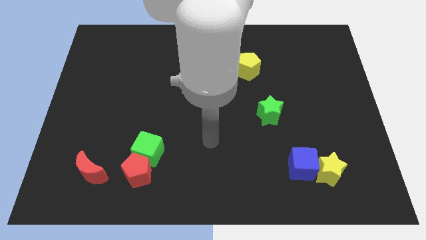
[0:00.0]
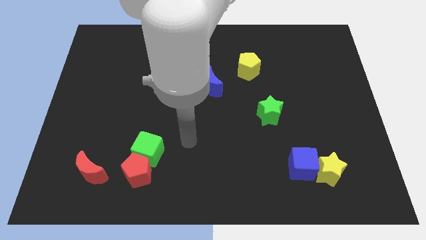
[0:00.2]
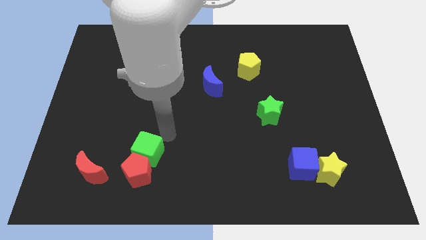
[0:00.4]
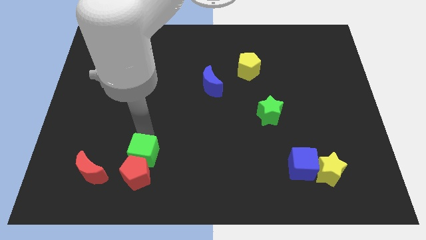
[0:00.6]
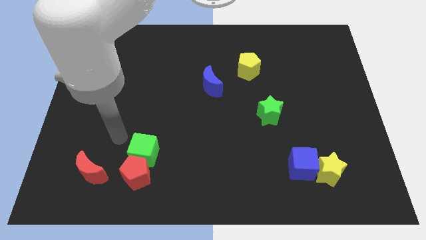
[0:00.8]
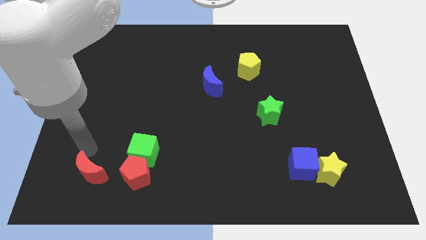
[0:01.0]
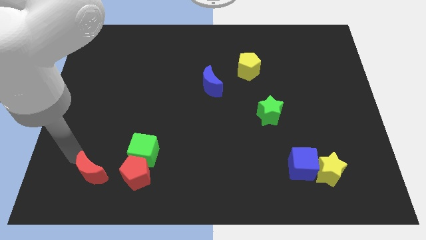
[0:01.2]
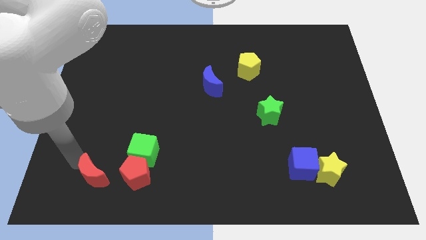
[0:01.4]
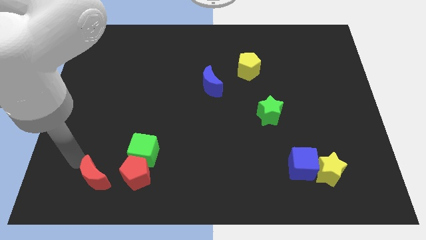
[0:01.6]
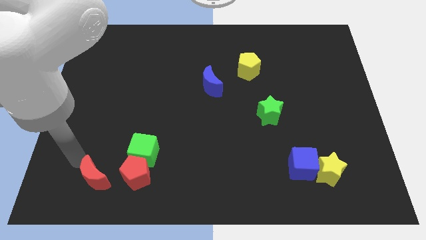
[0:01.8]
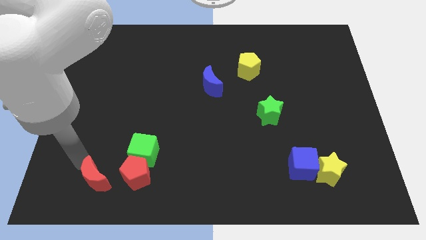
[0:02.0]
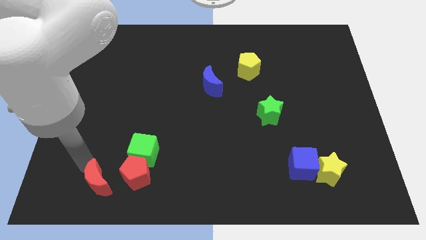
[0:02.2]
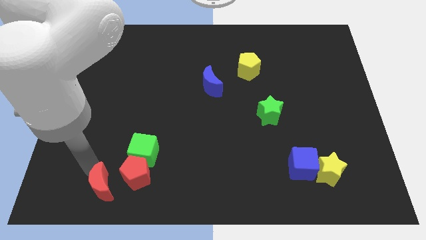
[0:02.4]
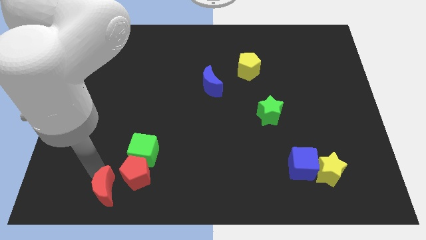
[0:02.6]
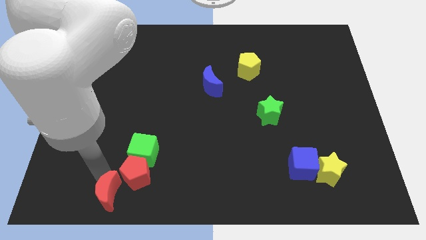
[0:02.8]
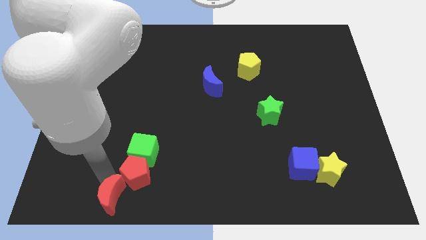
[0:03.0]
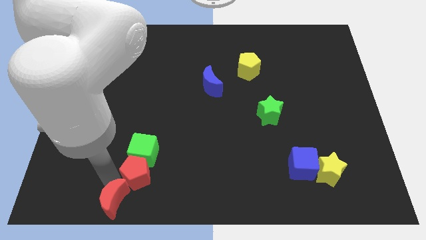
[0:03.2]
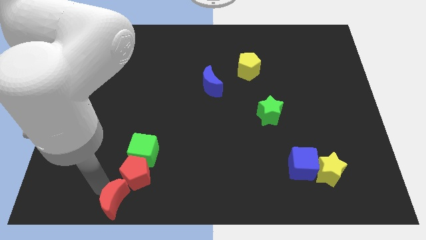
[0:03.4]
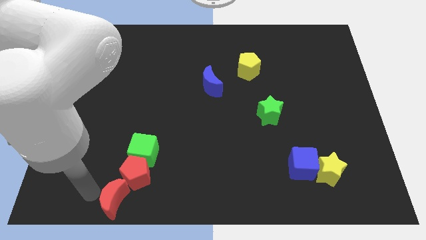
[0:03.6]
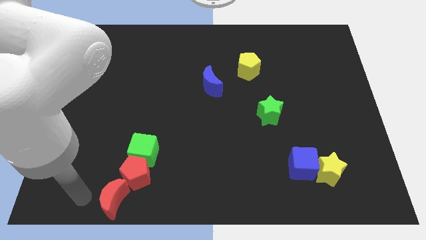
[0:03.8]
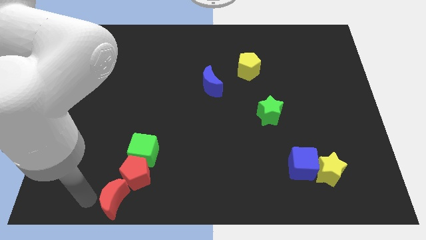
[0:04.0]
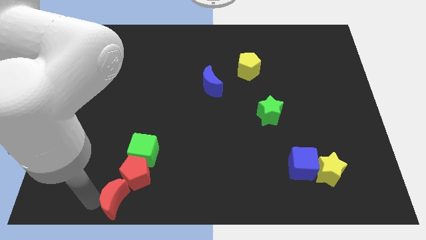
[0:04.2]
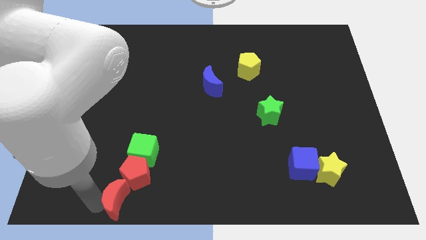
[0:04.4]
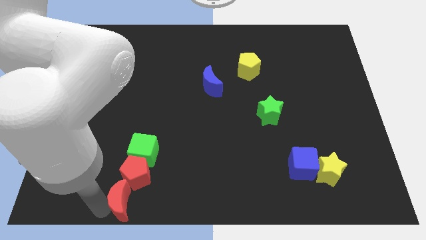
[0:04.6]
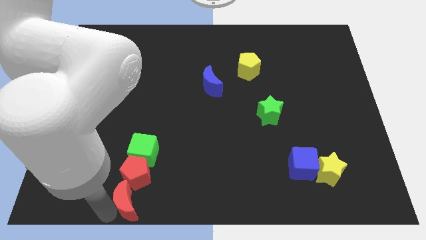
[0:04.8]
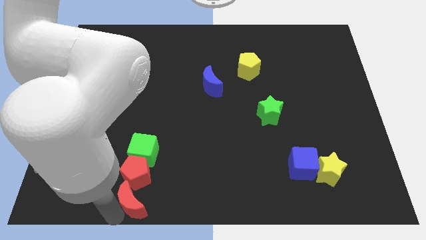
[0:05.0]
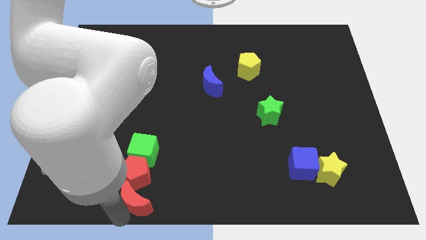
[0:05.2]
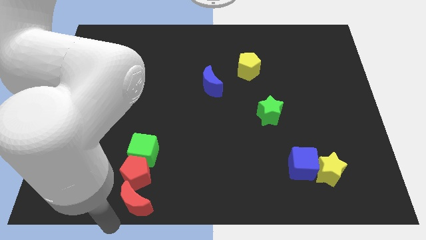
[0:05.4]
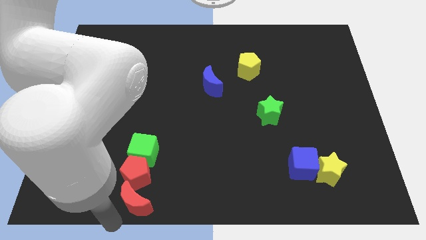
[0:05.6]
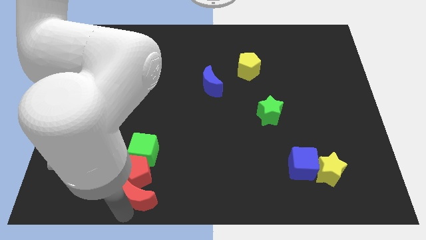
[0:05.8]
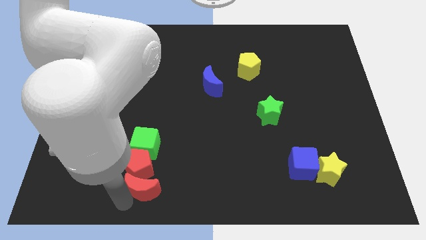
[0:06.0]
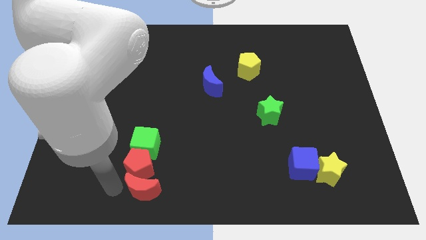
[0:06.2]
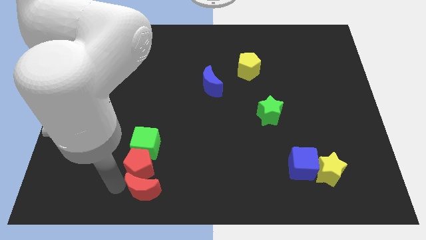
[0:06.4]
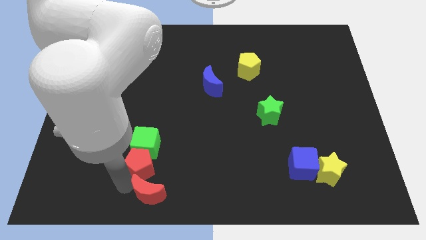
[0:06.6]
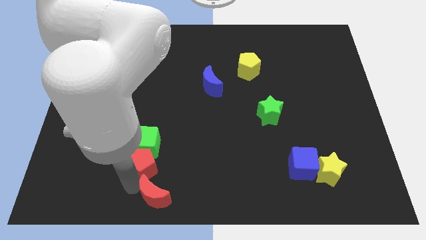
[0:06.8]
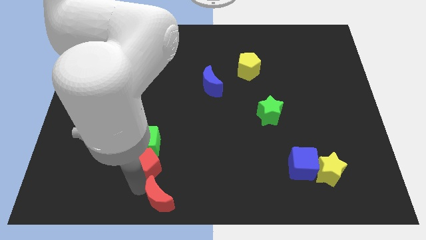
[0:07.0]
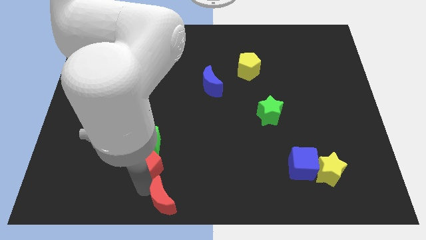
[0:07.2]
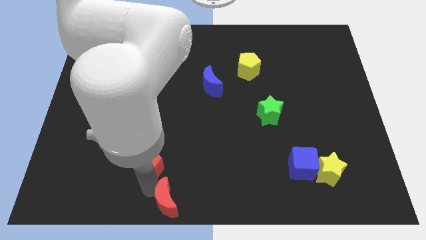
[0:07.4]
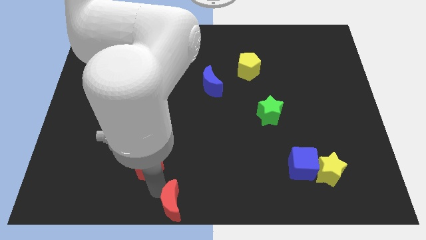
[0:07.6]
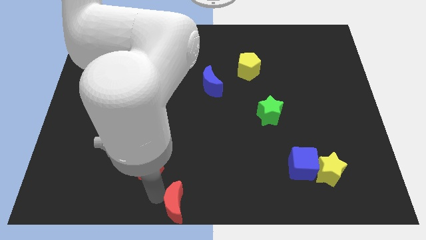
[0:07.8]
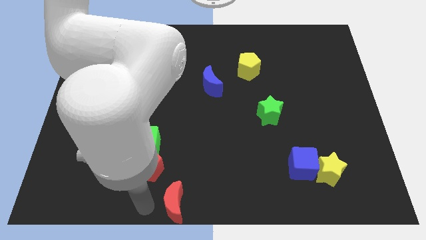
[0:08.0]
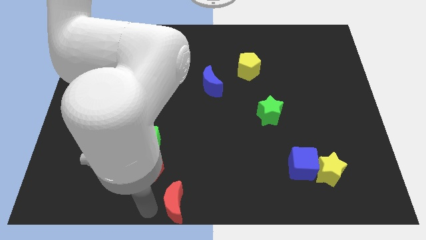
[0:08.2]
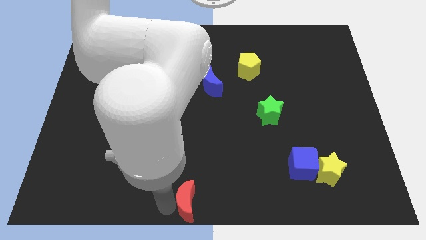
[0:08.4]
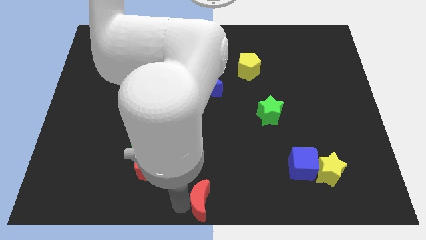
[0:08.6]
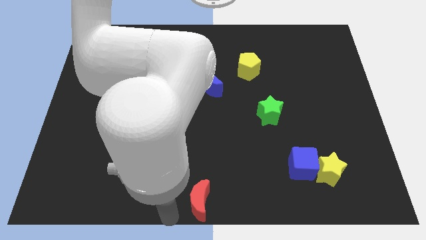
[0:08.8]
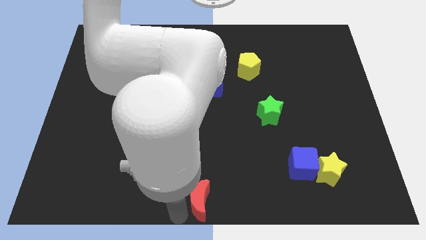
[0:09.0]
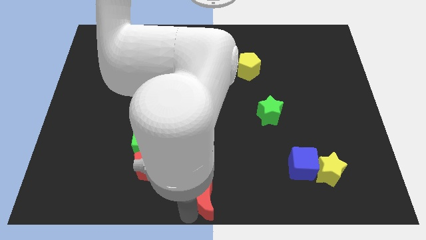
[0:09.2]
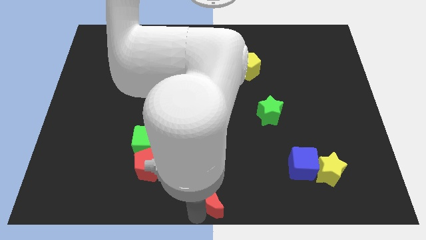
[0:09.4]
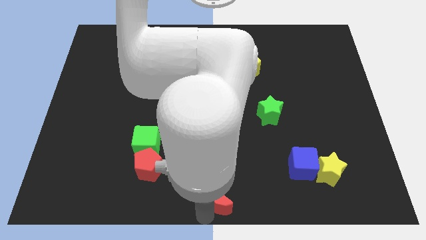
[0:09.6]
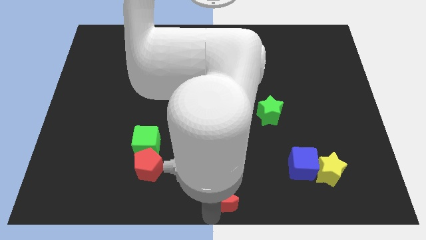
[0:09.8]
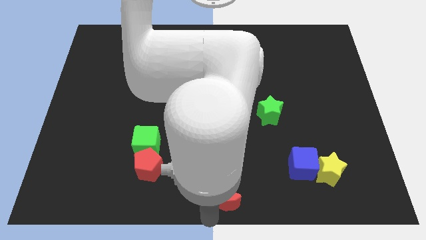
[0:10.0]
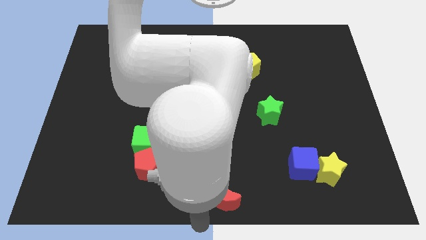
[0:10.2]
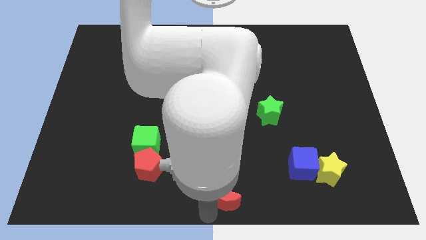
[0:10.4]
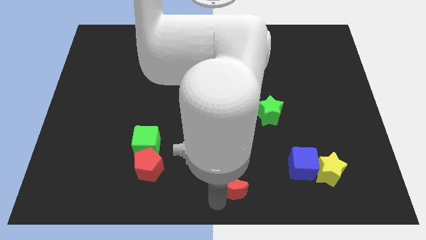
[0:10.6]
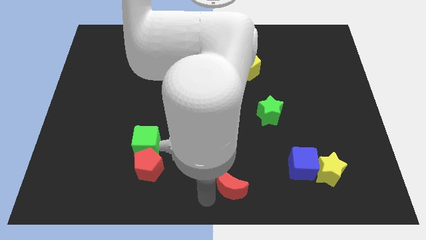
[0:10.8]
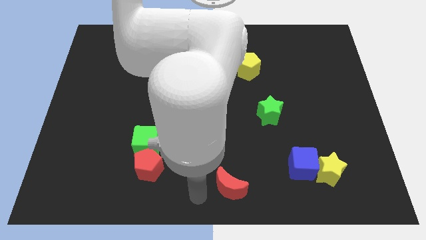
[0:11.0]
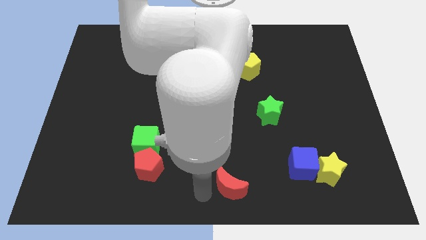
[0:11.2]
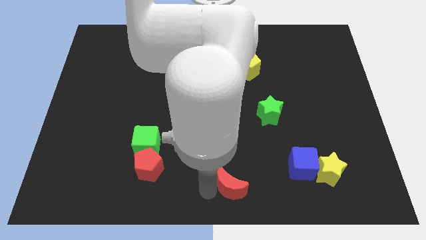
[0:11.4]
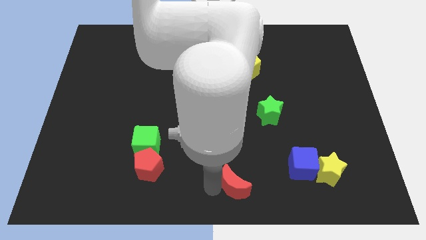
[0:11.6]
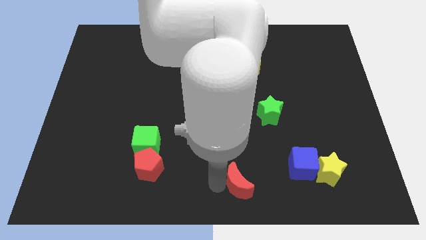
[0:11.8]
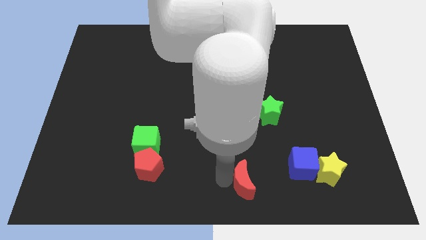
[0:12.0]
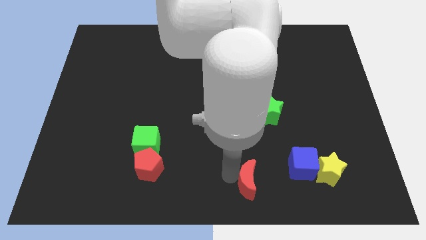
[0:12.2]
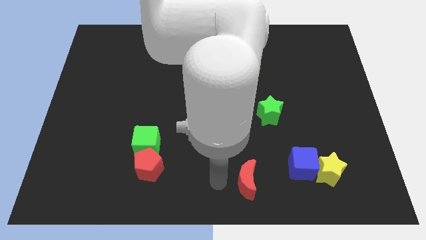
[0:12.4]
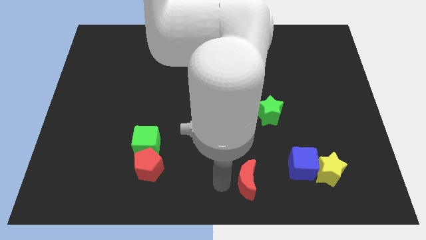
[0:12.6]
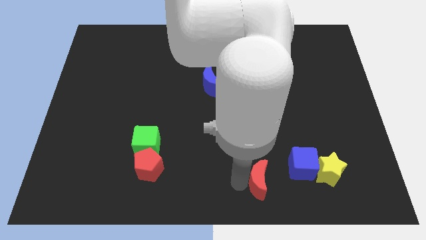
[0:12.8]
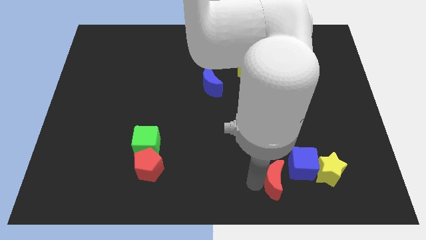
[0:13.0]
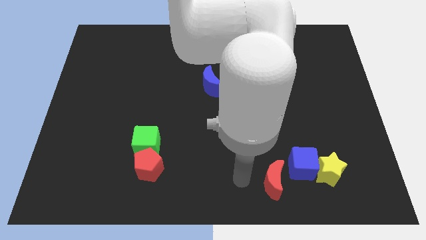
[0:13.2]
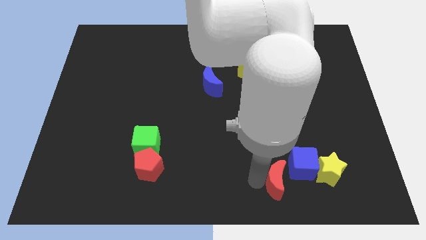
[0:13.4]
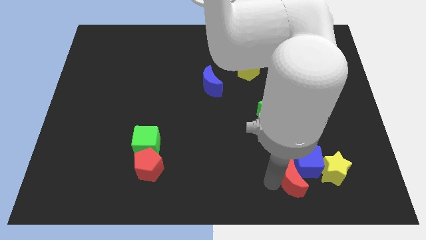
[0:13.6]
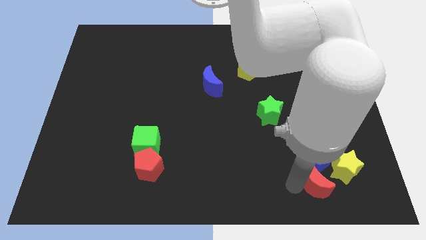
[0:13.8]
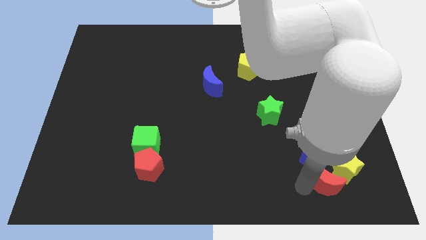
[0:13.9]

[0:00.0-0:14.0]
put the red moon to the yellow star

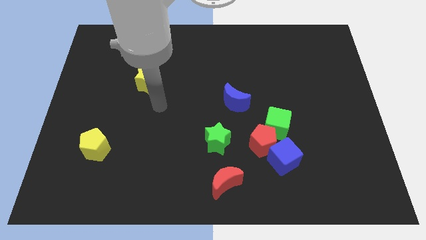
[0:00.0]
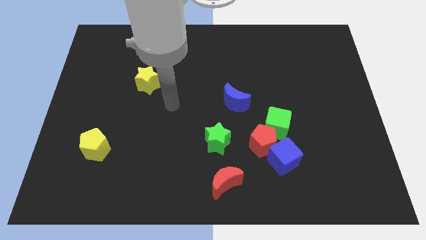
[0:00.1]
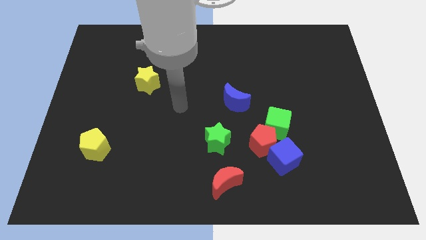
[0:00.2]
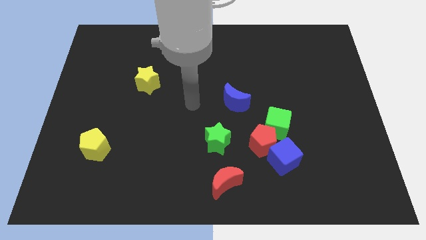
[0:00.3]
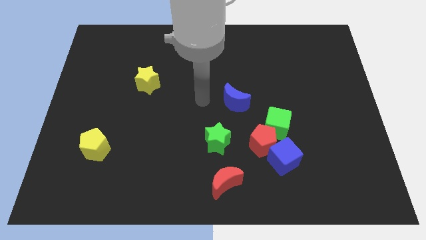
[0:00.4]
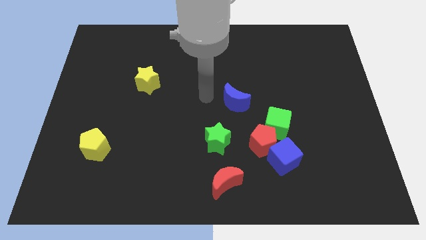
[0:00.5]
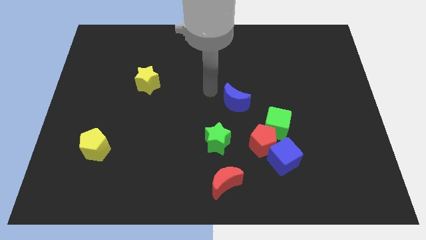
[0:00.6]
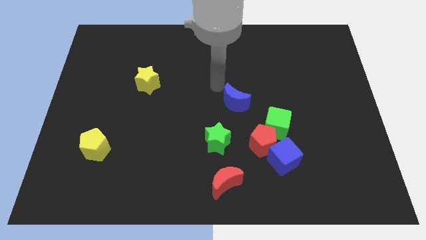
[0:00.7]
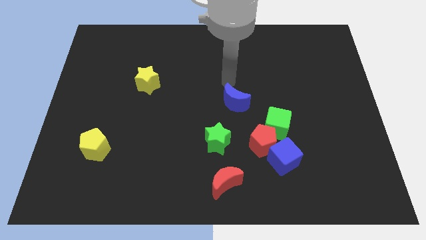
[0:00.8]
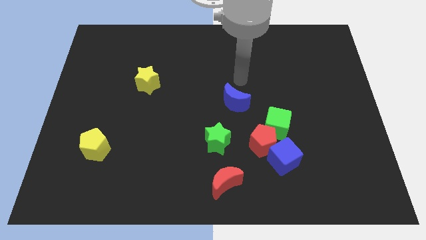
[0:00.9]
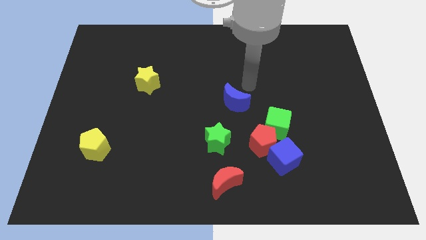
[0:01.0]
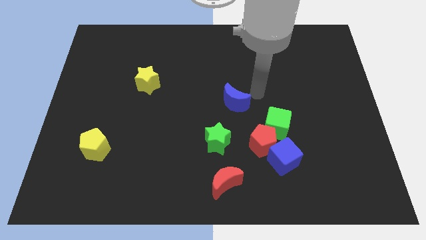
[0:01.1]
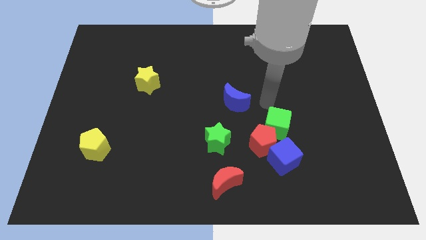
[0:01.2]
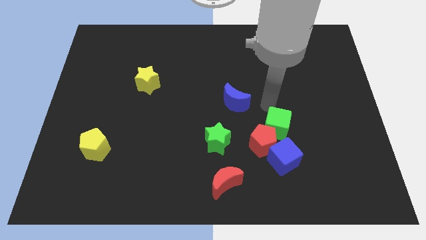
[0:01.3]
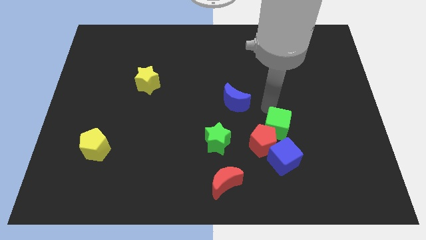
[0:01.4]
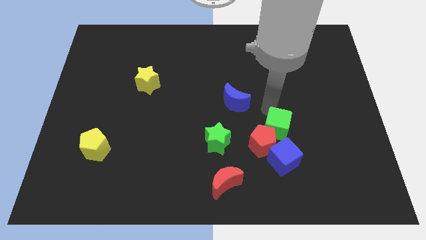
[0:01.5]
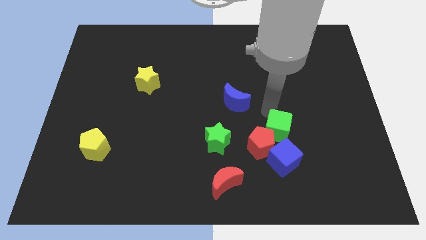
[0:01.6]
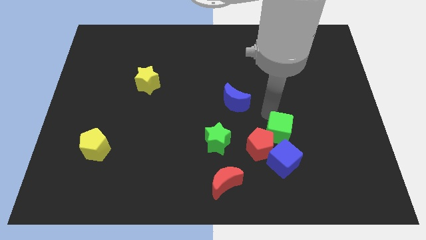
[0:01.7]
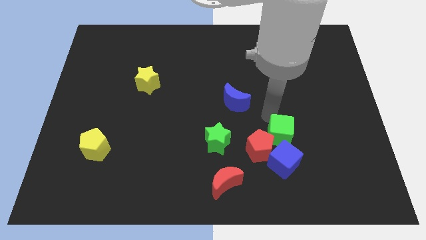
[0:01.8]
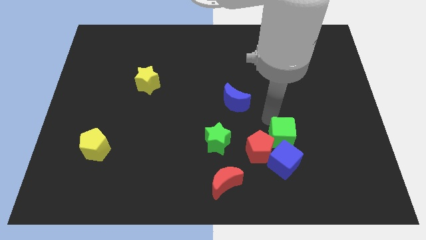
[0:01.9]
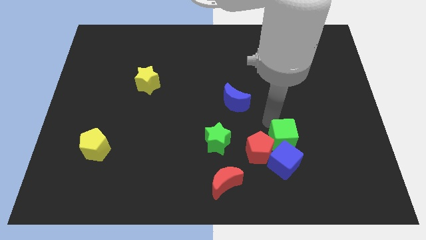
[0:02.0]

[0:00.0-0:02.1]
push the green cube close to the blue cube
